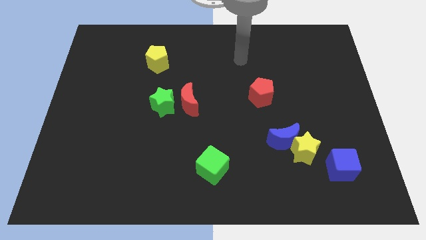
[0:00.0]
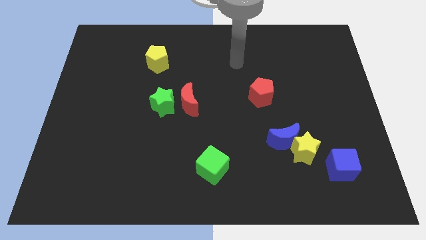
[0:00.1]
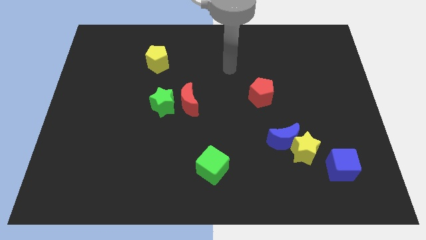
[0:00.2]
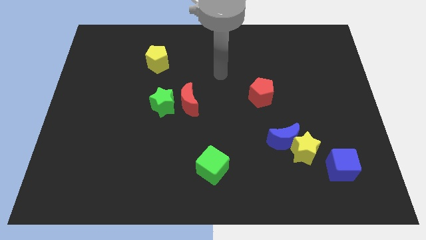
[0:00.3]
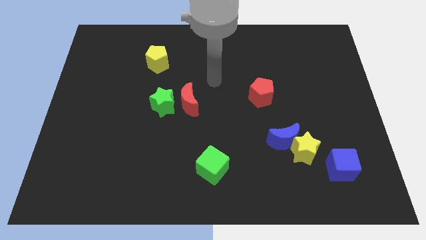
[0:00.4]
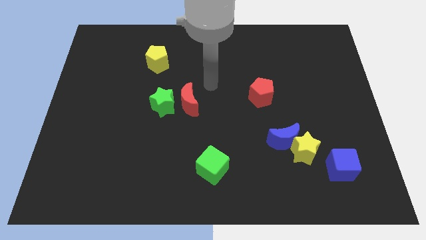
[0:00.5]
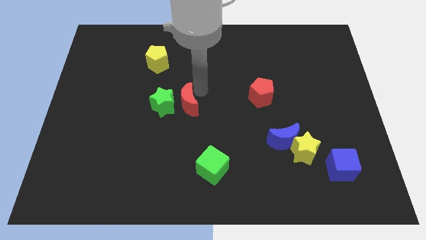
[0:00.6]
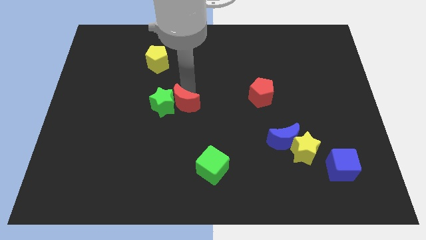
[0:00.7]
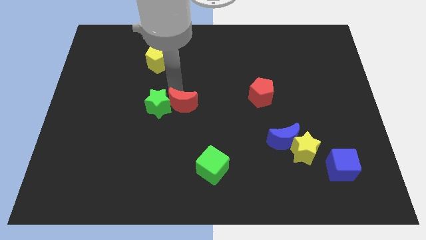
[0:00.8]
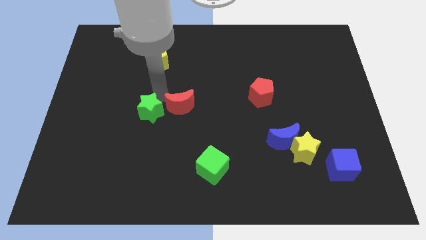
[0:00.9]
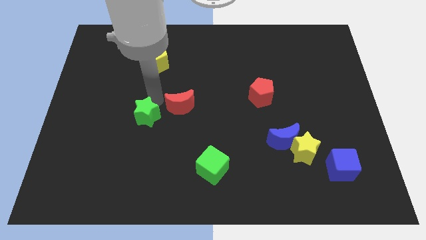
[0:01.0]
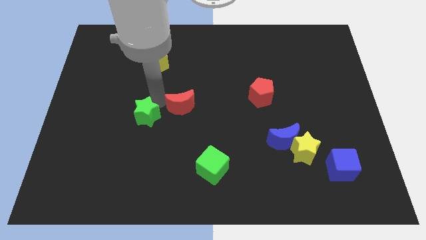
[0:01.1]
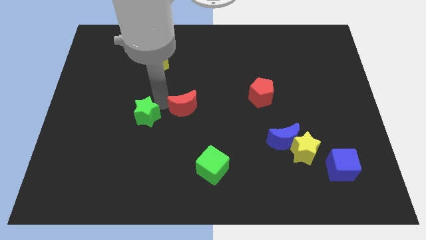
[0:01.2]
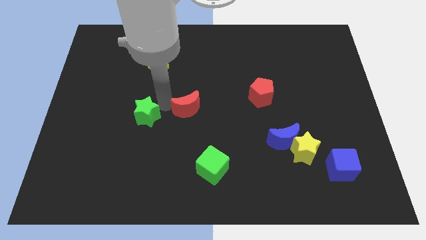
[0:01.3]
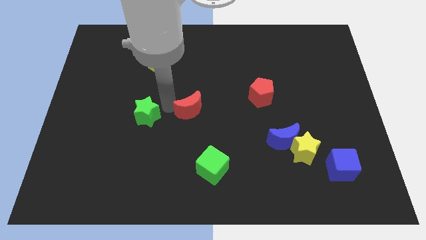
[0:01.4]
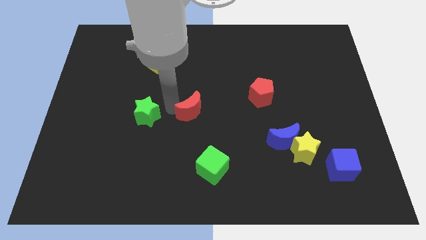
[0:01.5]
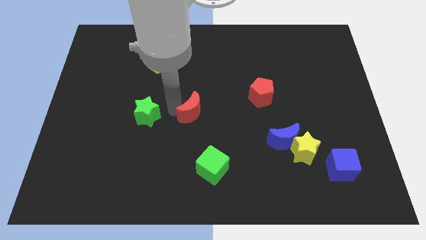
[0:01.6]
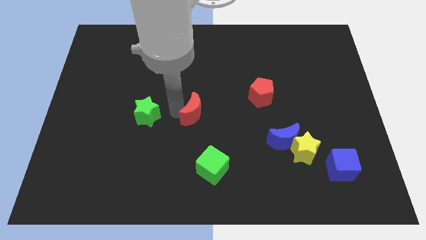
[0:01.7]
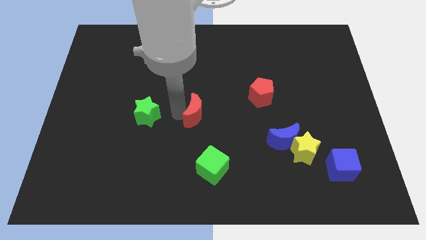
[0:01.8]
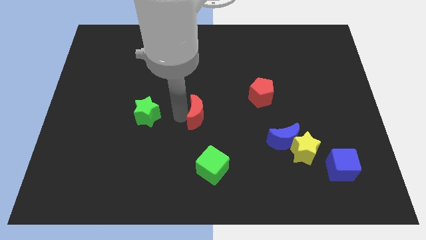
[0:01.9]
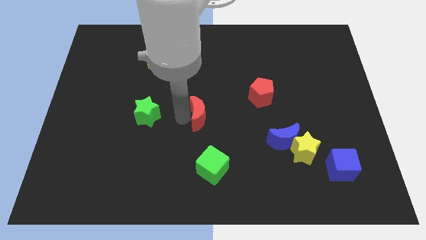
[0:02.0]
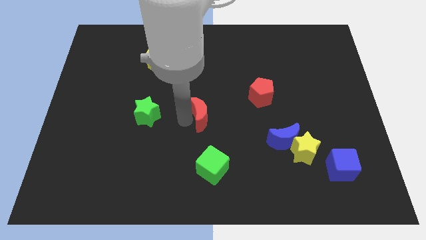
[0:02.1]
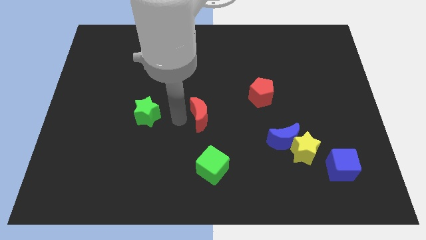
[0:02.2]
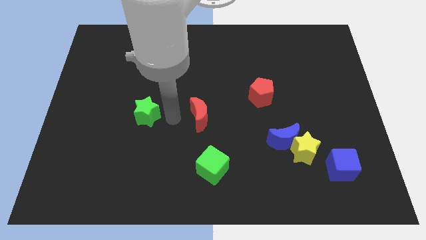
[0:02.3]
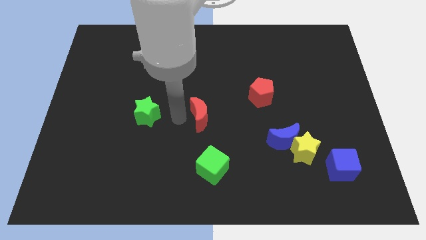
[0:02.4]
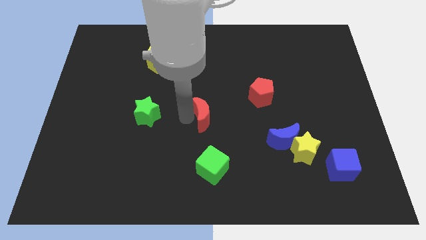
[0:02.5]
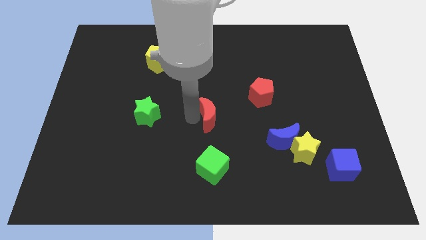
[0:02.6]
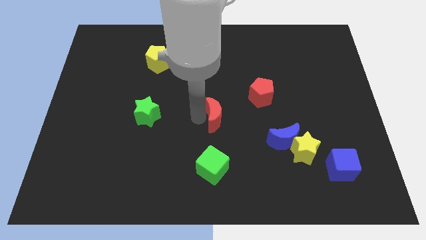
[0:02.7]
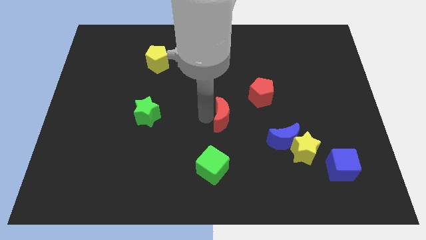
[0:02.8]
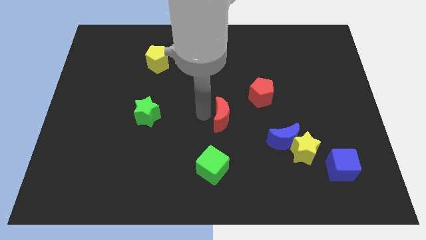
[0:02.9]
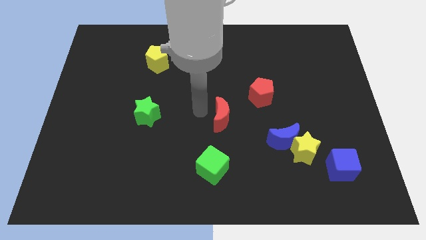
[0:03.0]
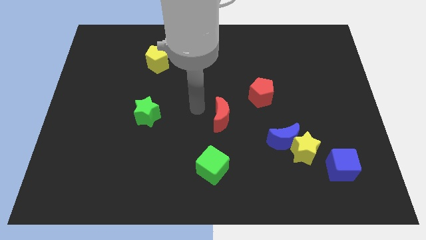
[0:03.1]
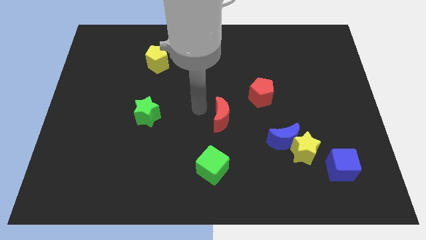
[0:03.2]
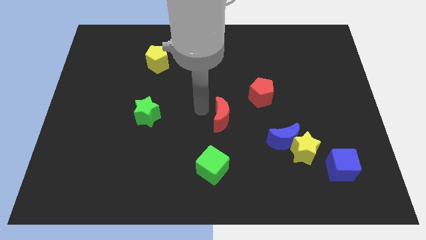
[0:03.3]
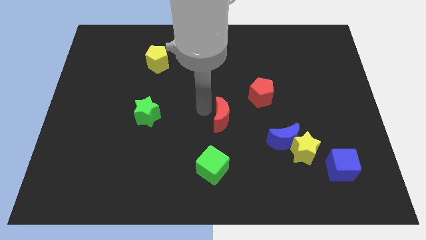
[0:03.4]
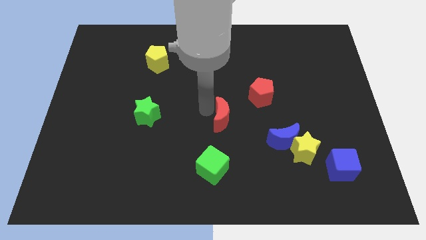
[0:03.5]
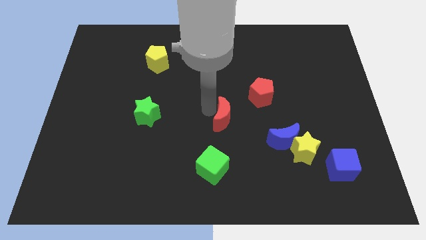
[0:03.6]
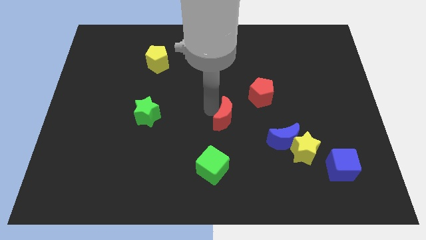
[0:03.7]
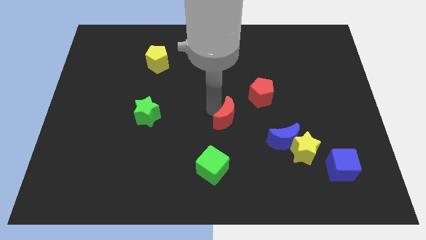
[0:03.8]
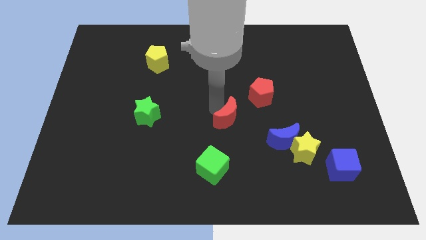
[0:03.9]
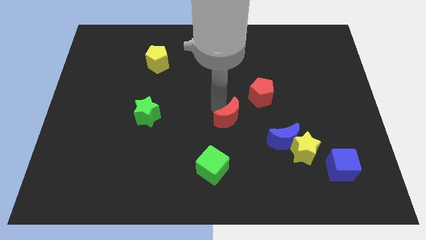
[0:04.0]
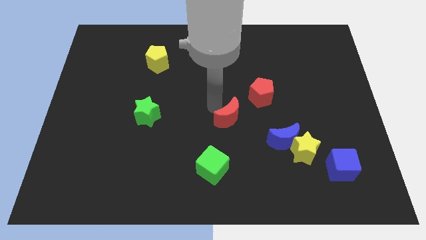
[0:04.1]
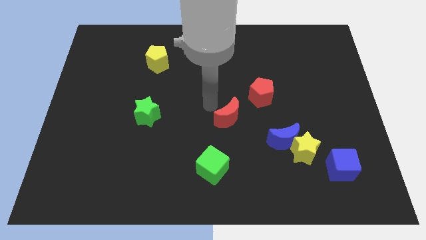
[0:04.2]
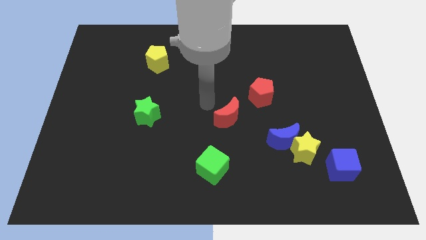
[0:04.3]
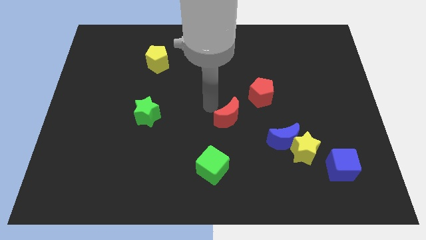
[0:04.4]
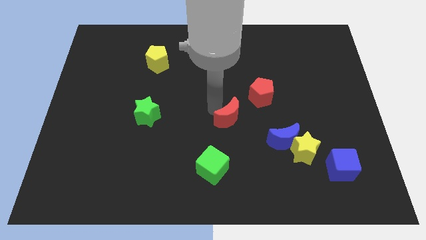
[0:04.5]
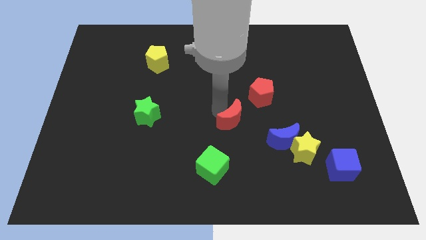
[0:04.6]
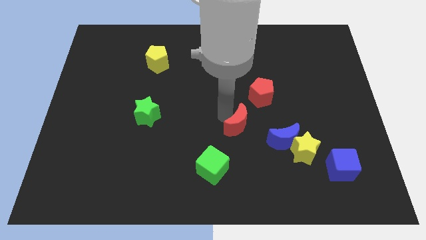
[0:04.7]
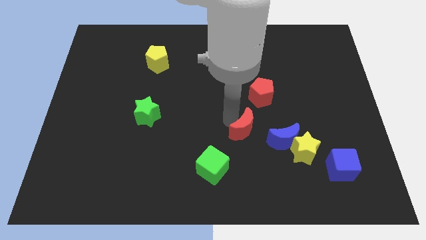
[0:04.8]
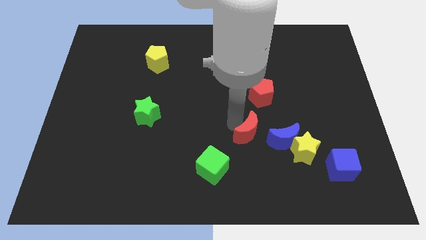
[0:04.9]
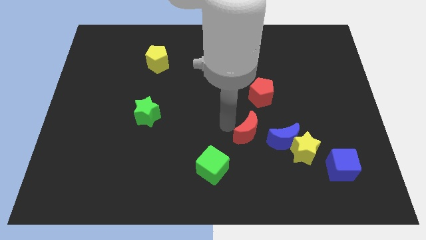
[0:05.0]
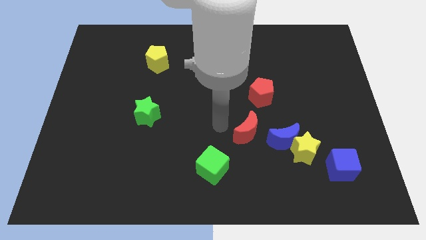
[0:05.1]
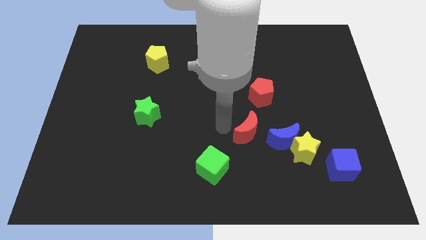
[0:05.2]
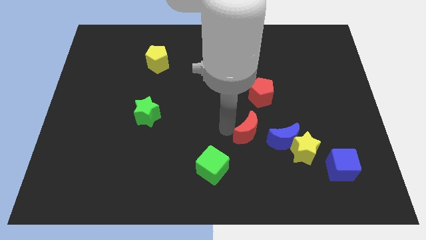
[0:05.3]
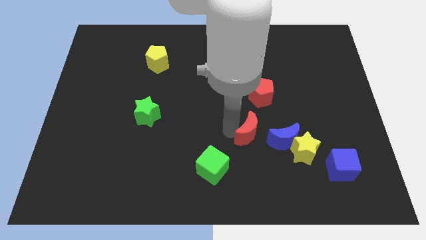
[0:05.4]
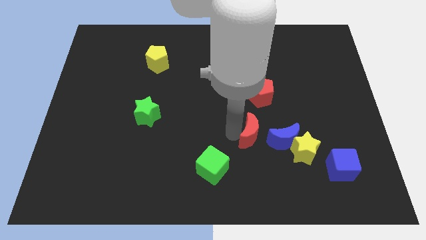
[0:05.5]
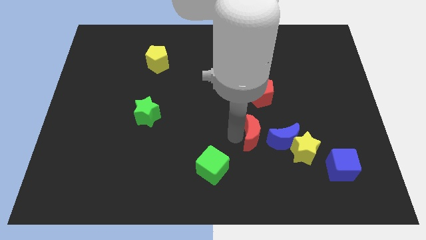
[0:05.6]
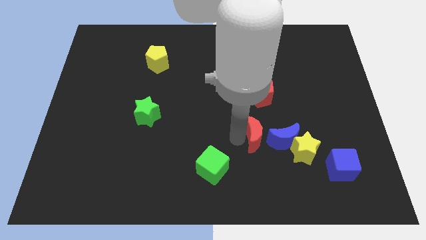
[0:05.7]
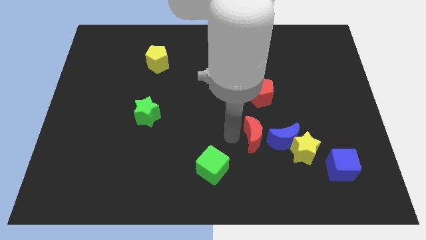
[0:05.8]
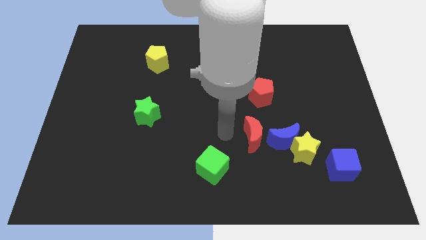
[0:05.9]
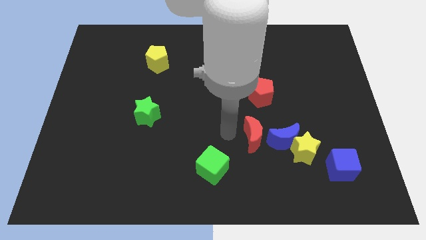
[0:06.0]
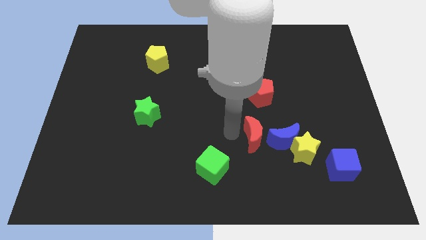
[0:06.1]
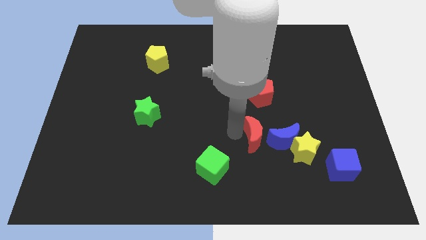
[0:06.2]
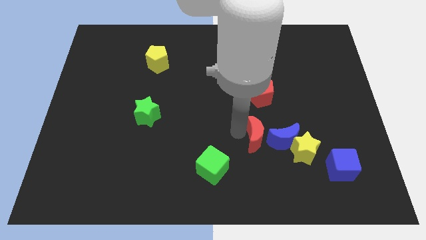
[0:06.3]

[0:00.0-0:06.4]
push the red moon next to the blue moon
